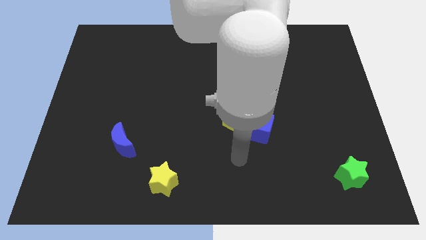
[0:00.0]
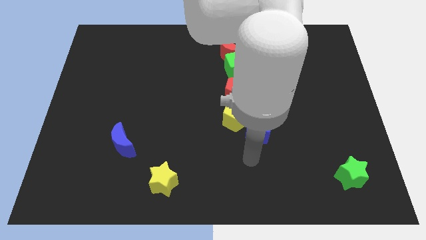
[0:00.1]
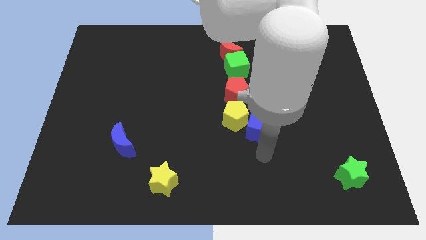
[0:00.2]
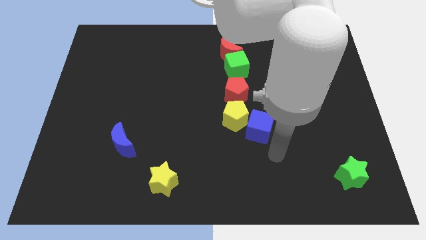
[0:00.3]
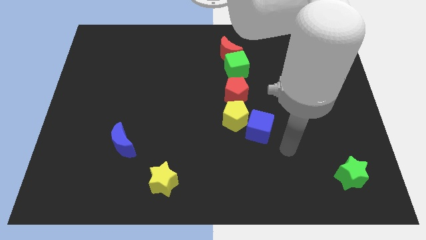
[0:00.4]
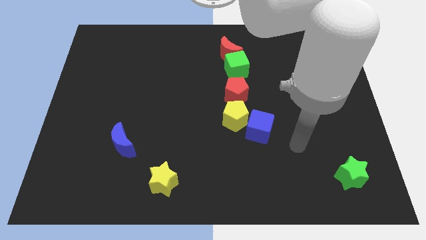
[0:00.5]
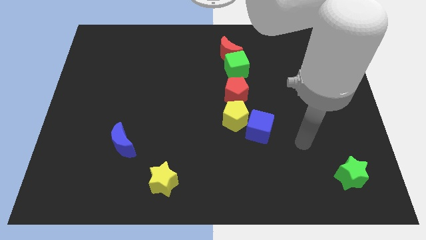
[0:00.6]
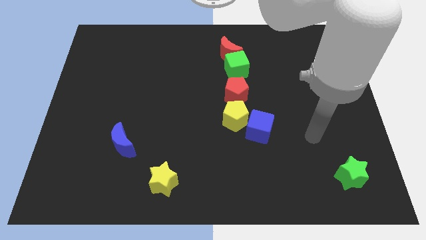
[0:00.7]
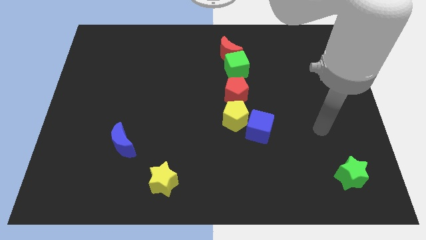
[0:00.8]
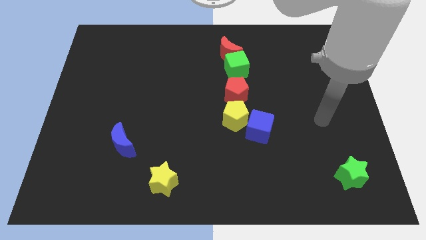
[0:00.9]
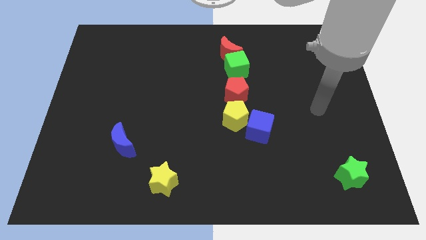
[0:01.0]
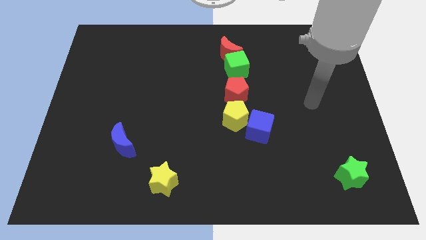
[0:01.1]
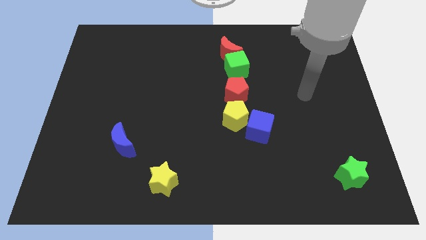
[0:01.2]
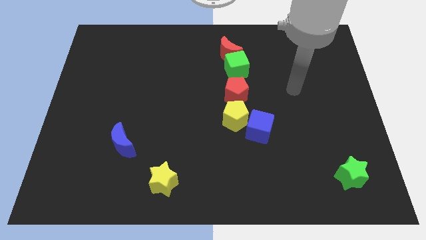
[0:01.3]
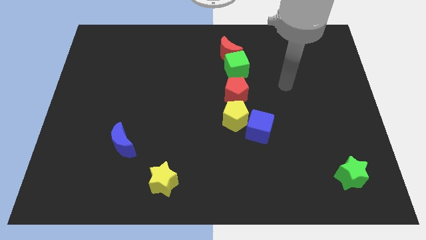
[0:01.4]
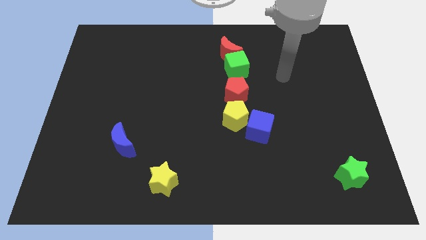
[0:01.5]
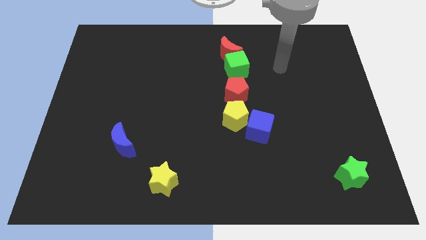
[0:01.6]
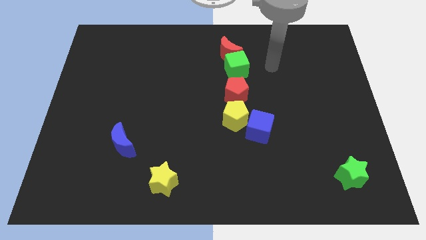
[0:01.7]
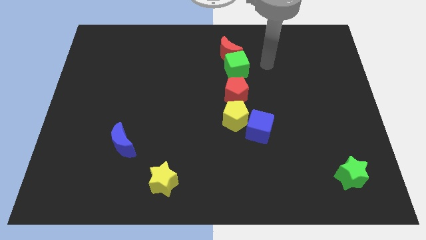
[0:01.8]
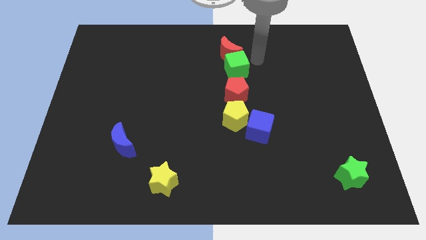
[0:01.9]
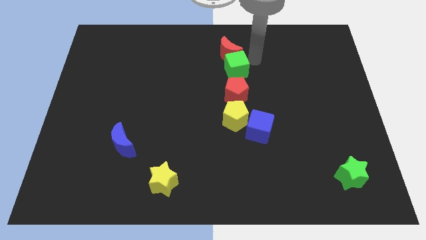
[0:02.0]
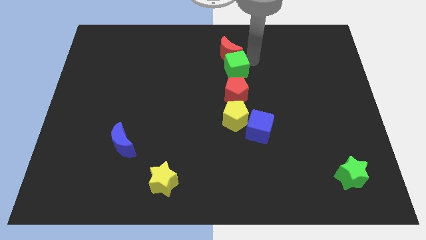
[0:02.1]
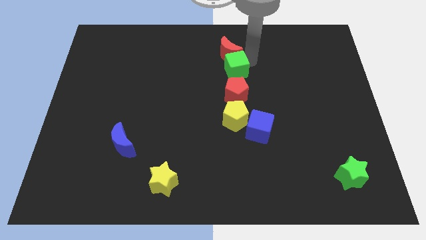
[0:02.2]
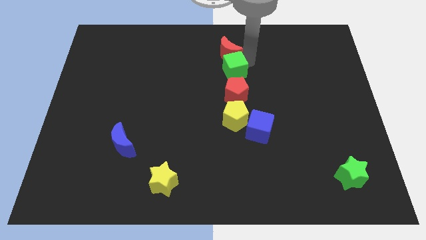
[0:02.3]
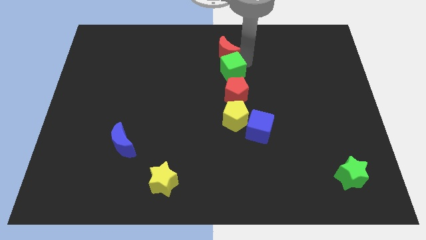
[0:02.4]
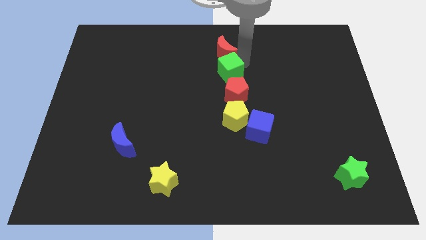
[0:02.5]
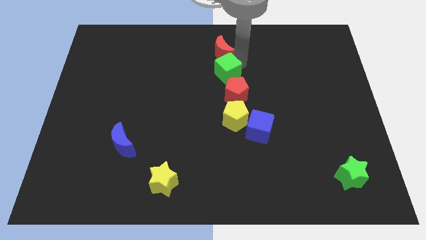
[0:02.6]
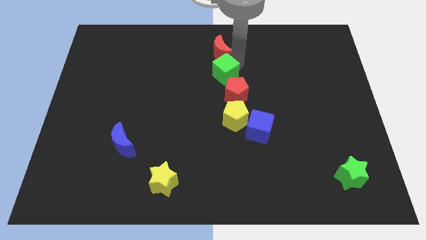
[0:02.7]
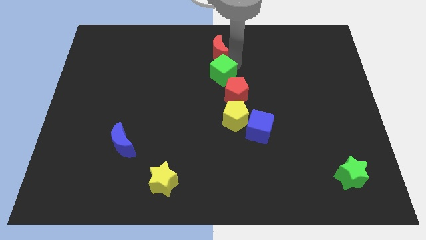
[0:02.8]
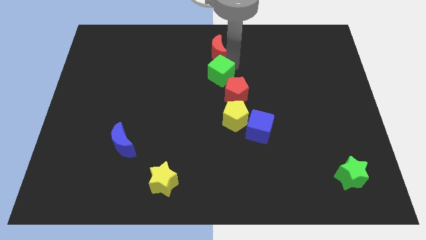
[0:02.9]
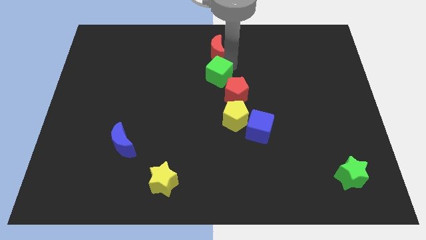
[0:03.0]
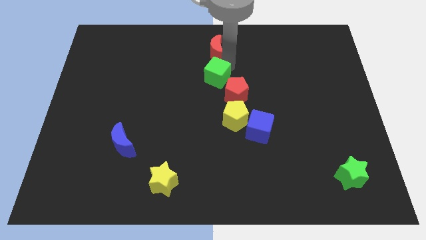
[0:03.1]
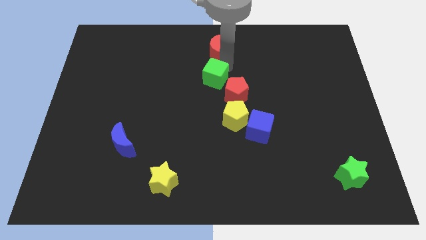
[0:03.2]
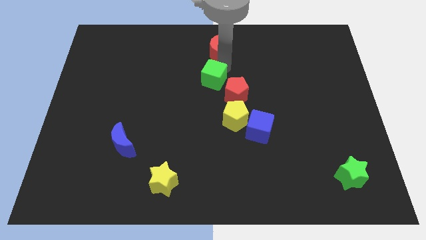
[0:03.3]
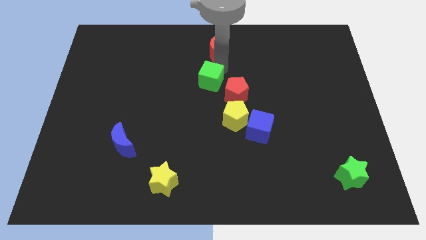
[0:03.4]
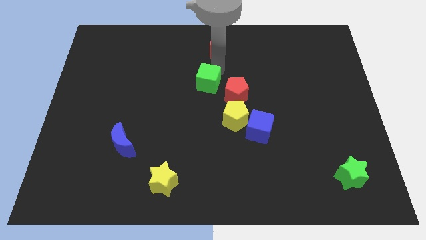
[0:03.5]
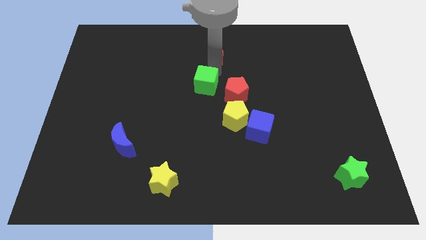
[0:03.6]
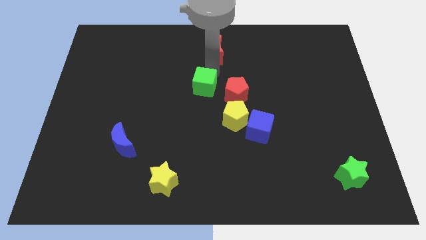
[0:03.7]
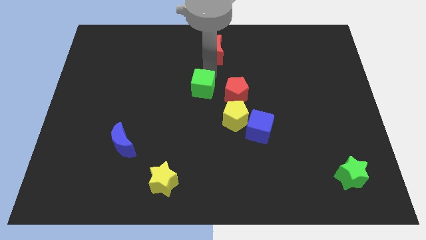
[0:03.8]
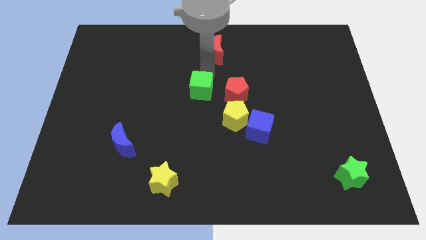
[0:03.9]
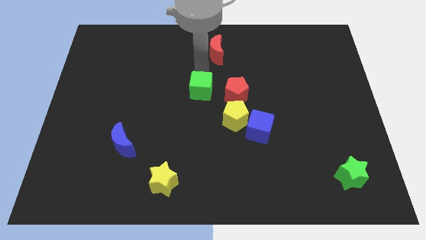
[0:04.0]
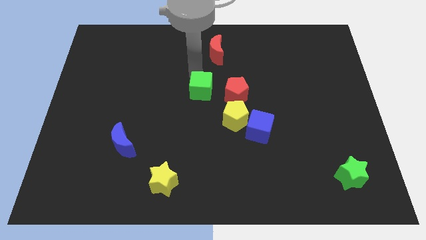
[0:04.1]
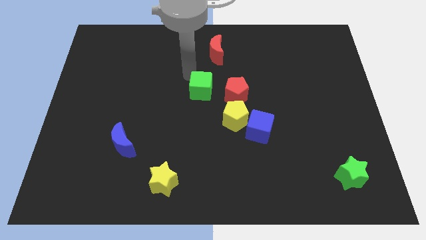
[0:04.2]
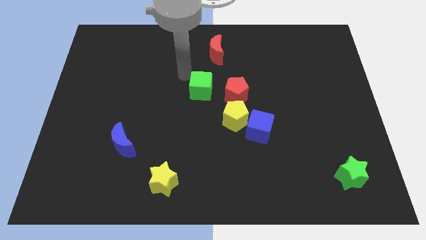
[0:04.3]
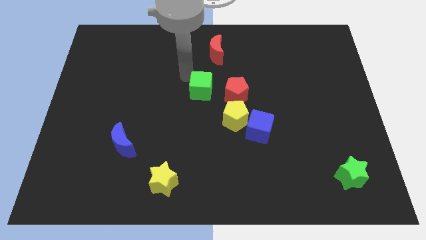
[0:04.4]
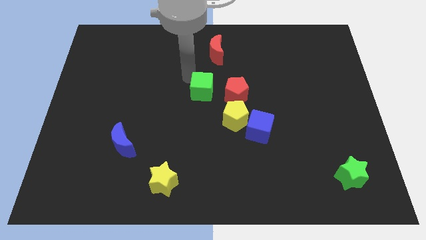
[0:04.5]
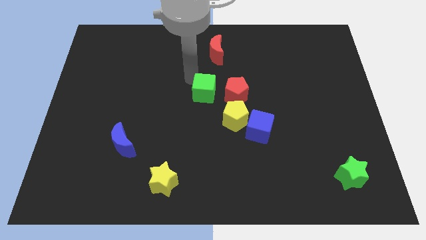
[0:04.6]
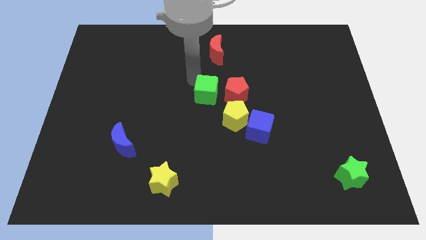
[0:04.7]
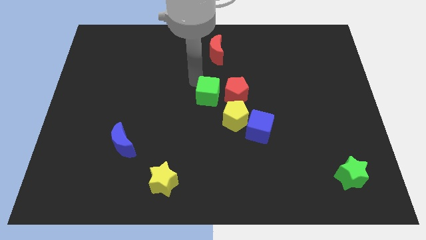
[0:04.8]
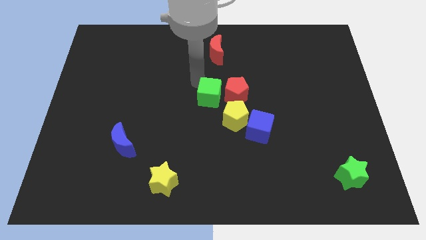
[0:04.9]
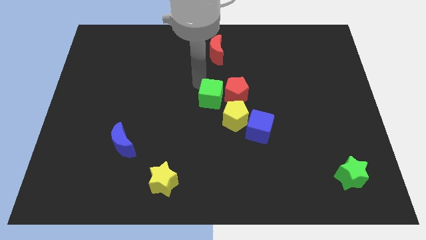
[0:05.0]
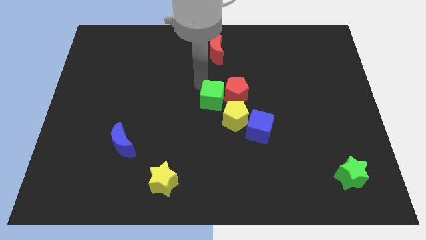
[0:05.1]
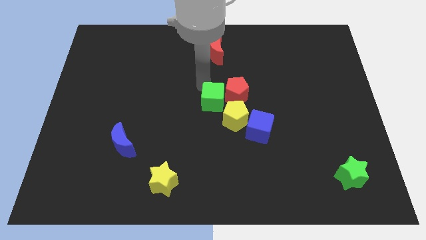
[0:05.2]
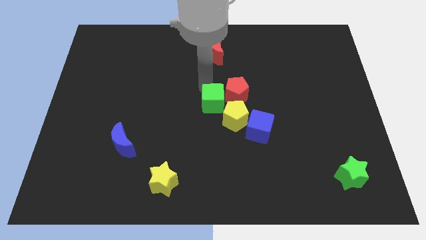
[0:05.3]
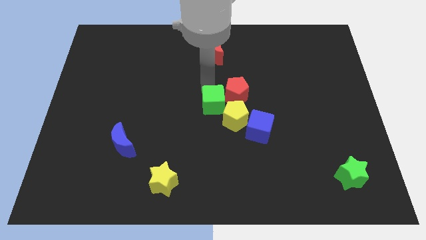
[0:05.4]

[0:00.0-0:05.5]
slide the green cube diagonally up and to the left of the blue cube

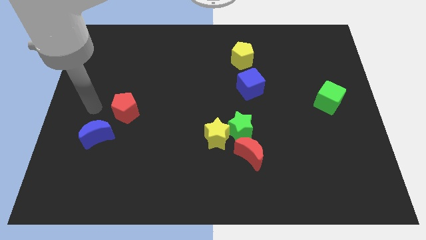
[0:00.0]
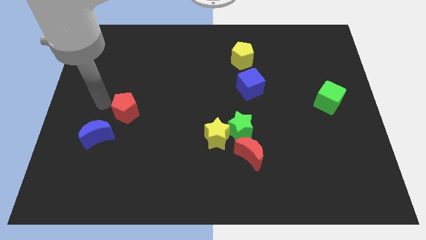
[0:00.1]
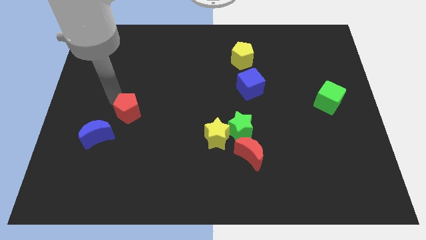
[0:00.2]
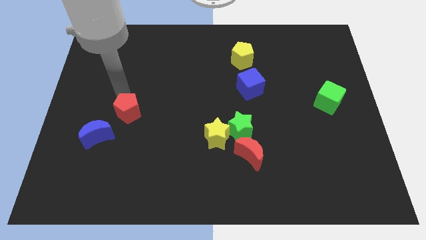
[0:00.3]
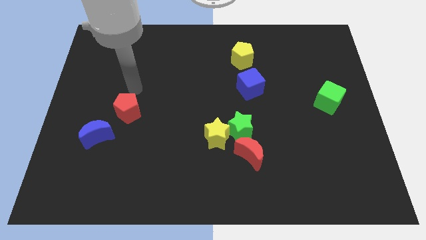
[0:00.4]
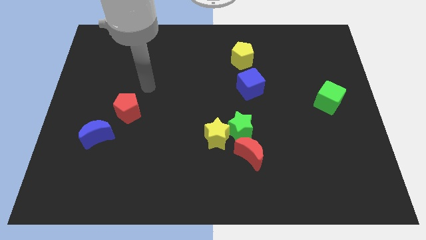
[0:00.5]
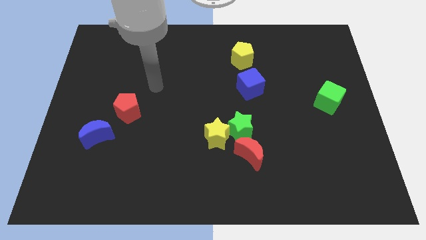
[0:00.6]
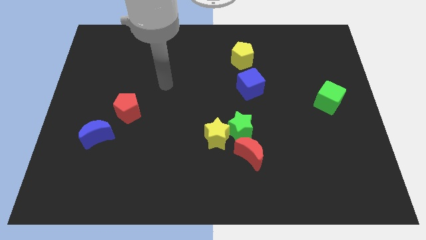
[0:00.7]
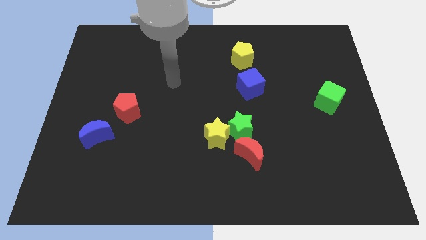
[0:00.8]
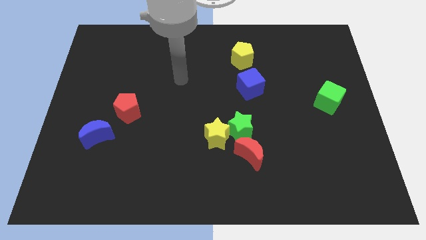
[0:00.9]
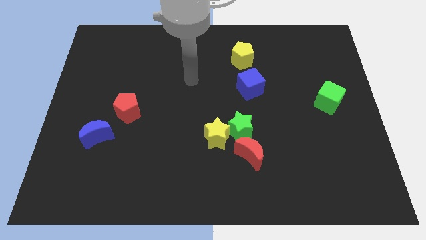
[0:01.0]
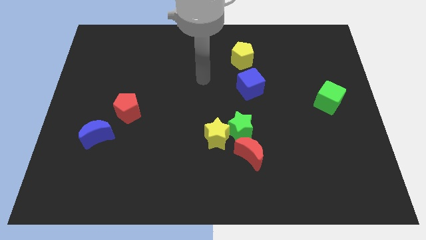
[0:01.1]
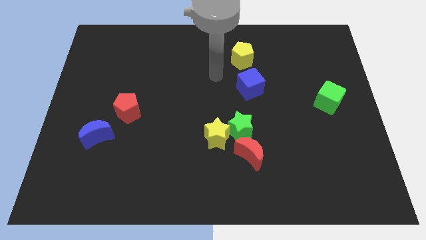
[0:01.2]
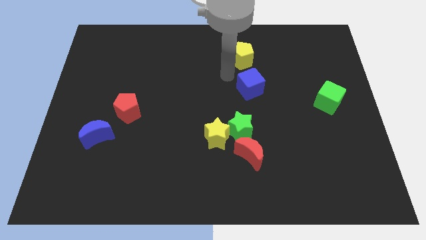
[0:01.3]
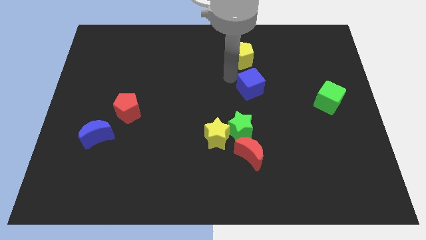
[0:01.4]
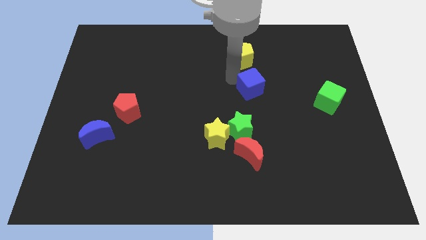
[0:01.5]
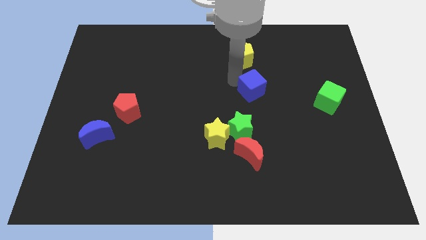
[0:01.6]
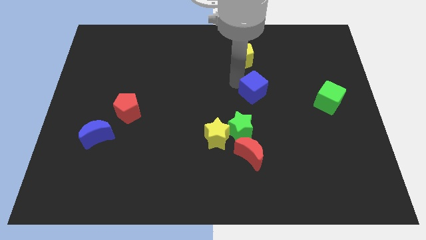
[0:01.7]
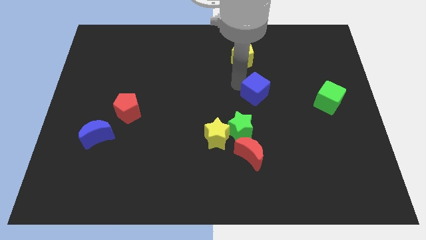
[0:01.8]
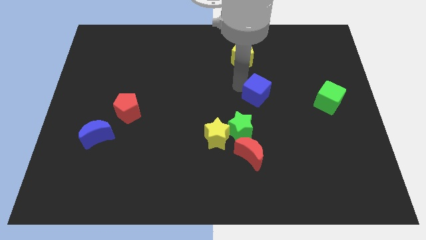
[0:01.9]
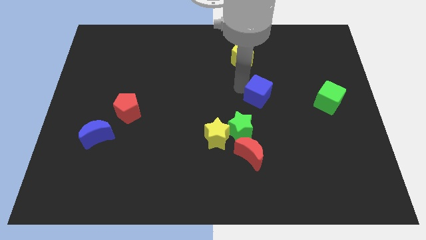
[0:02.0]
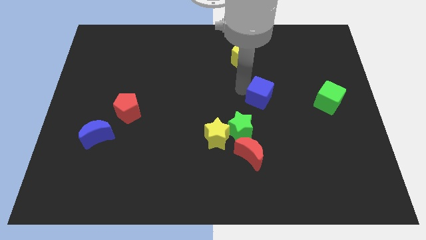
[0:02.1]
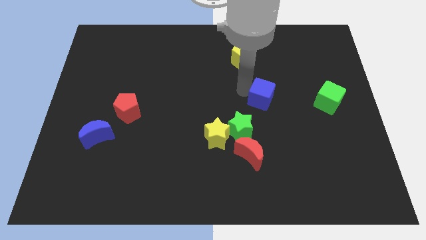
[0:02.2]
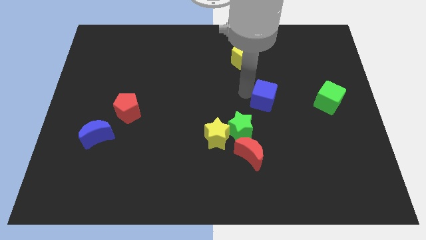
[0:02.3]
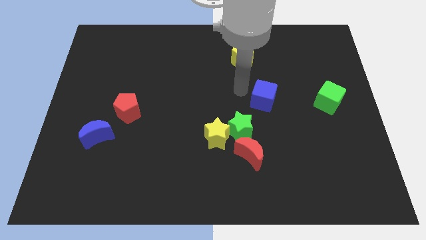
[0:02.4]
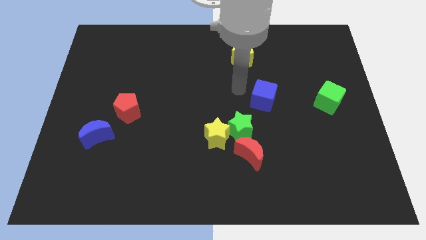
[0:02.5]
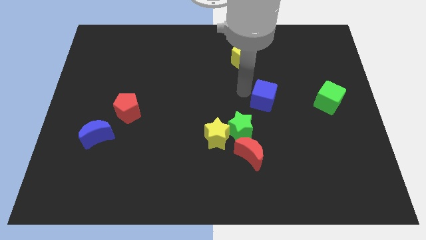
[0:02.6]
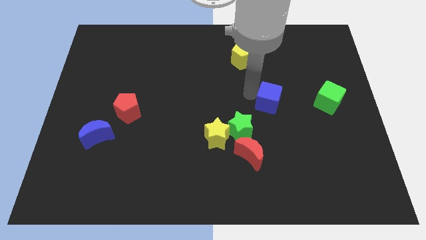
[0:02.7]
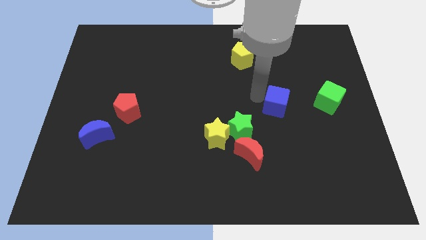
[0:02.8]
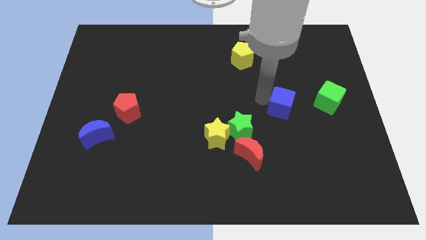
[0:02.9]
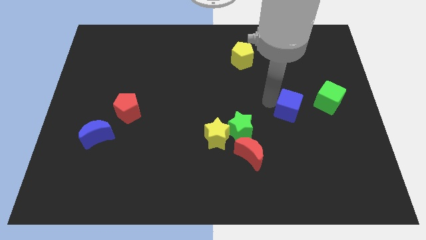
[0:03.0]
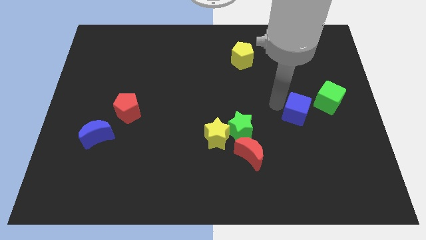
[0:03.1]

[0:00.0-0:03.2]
put the blue cube to the bottom left side of the green cube
